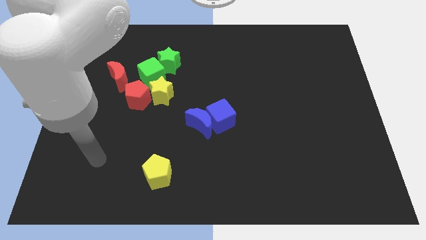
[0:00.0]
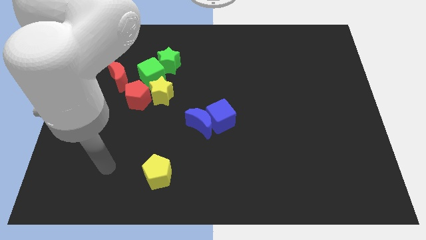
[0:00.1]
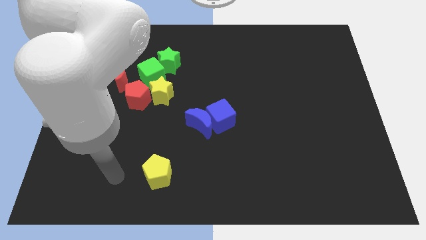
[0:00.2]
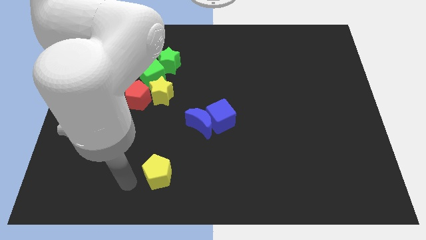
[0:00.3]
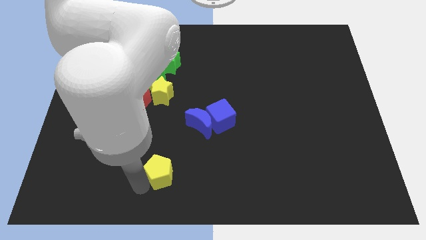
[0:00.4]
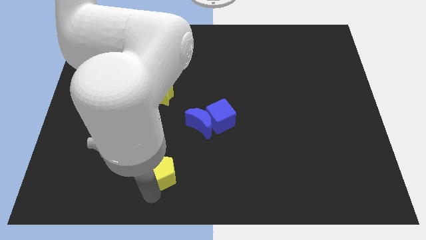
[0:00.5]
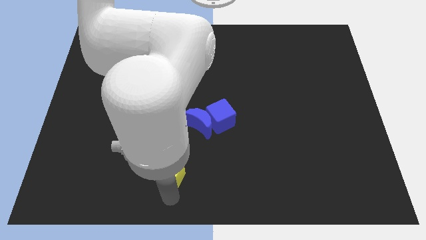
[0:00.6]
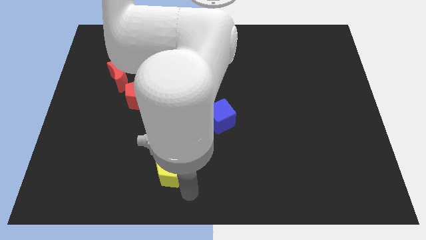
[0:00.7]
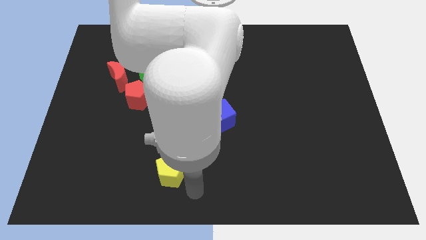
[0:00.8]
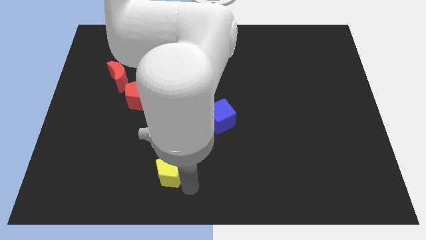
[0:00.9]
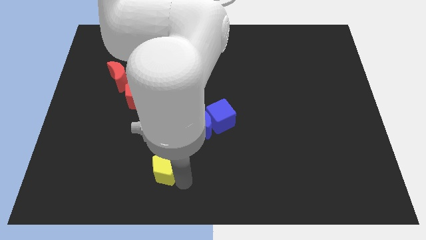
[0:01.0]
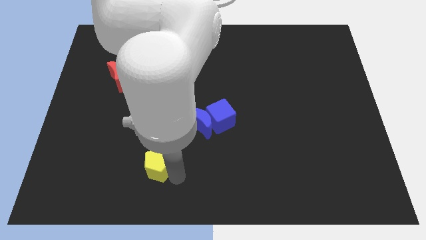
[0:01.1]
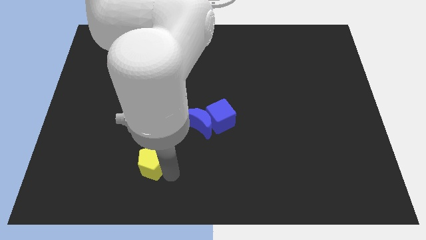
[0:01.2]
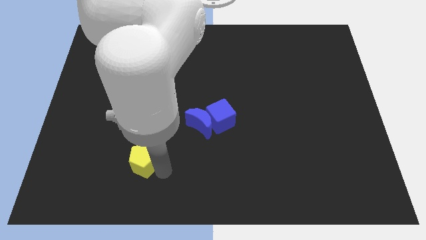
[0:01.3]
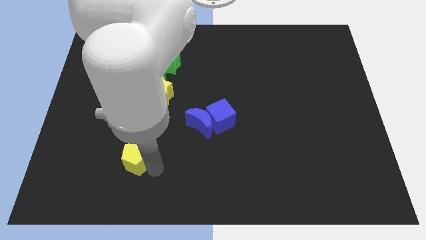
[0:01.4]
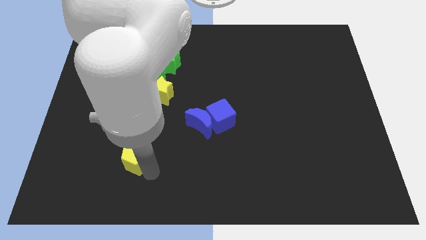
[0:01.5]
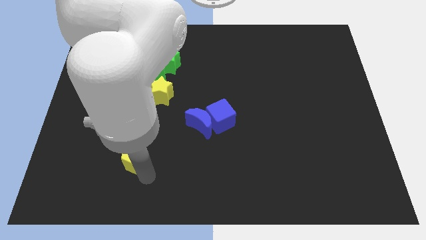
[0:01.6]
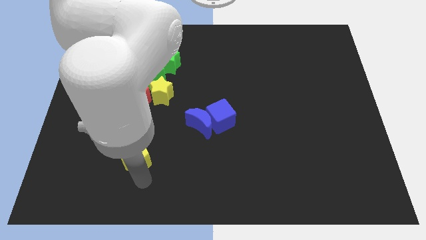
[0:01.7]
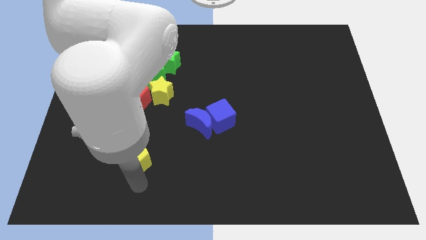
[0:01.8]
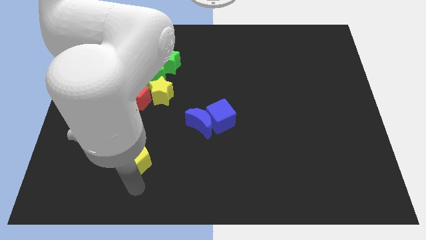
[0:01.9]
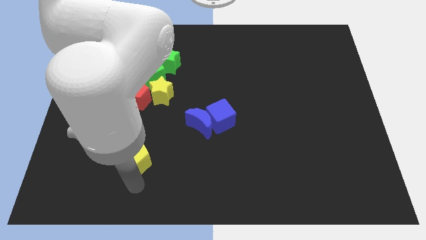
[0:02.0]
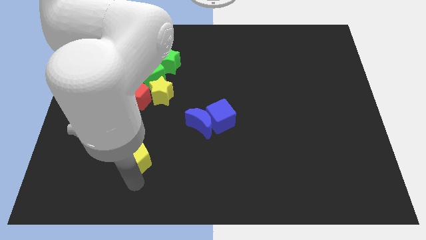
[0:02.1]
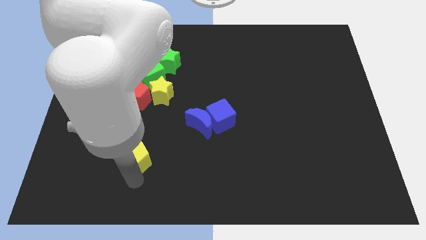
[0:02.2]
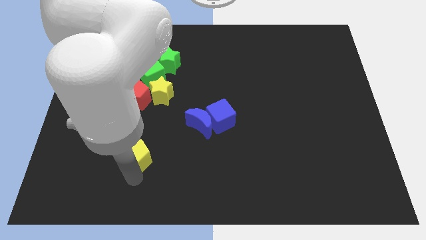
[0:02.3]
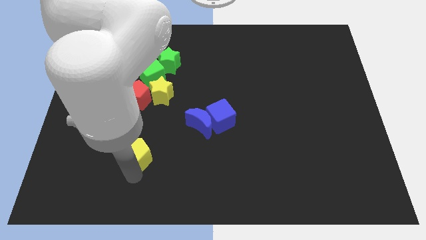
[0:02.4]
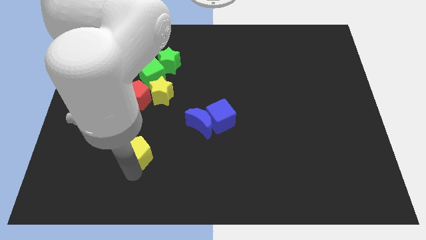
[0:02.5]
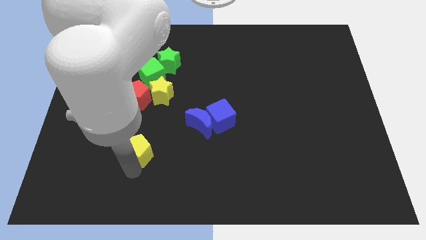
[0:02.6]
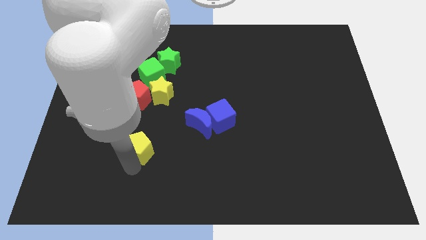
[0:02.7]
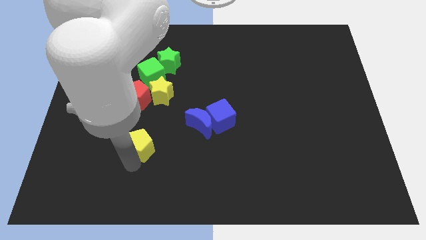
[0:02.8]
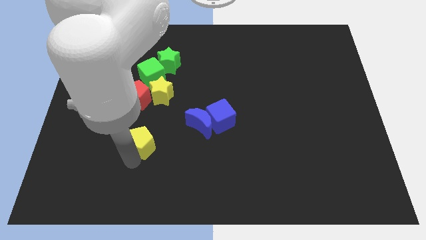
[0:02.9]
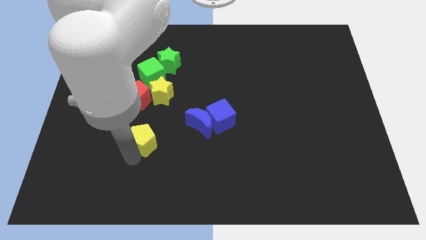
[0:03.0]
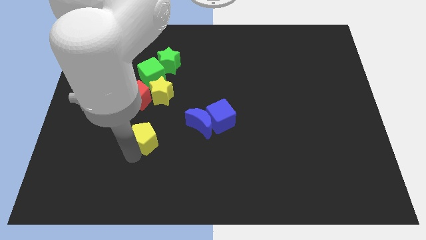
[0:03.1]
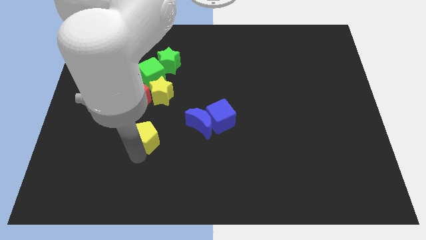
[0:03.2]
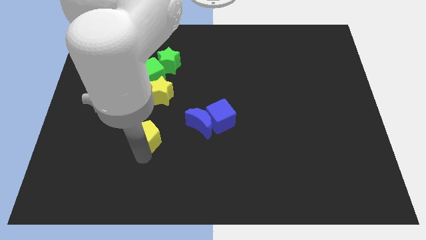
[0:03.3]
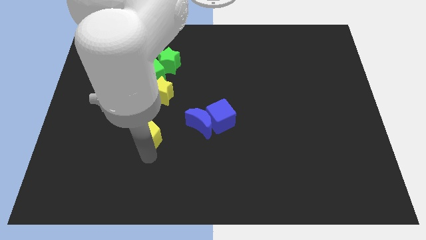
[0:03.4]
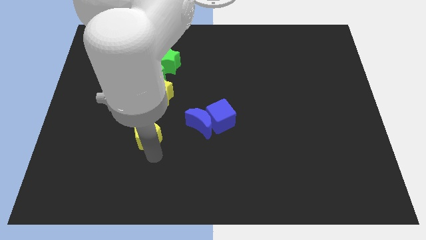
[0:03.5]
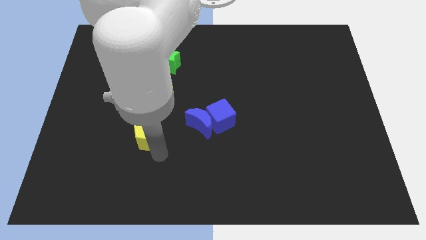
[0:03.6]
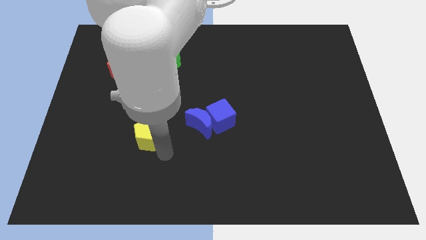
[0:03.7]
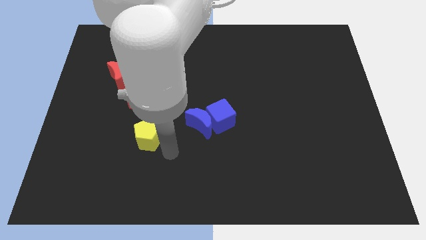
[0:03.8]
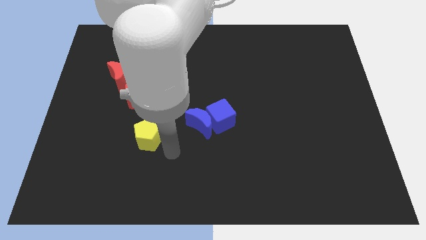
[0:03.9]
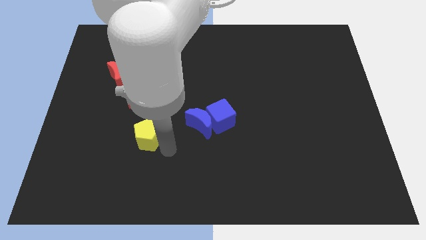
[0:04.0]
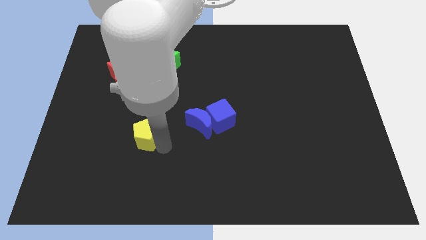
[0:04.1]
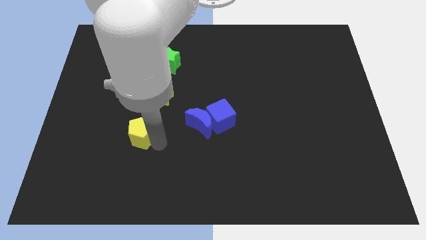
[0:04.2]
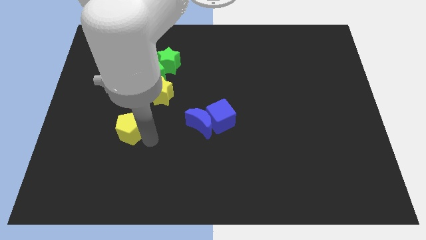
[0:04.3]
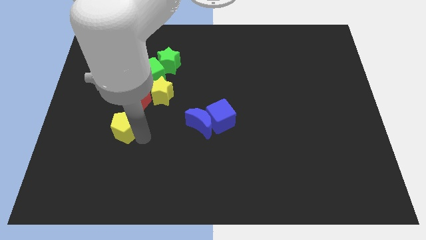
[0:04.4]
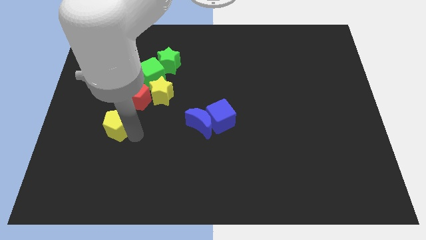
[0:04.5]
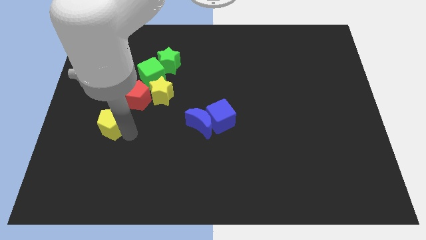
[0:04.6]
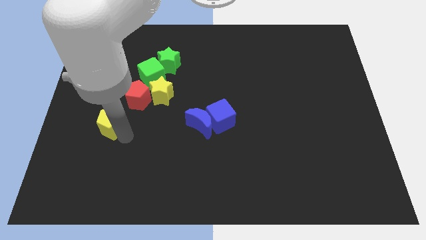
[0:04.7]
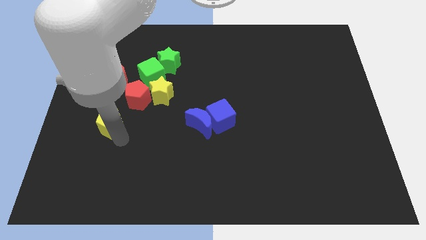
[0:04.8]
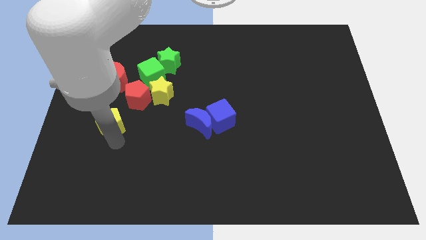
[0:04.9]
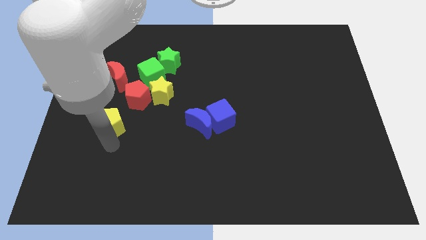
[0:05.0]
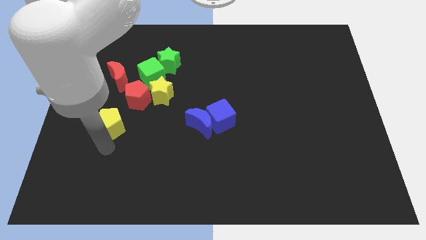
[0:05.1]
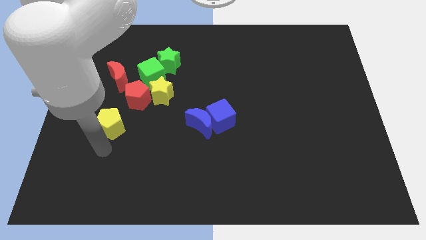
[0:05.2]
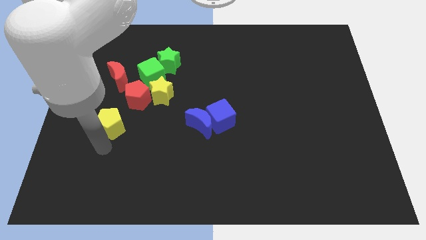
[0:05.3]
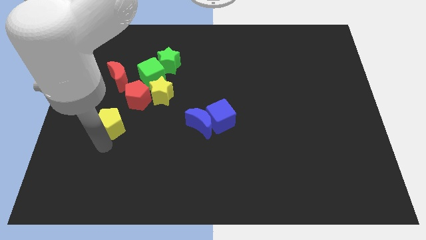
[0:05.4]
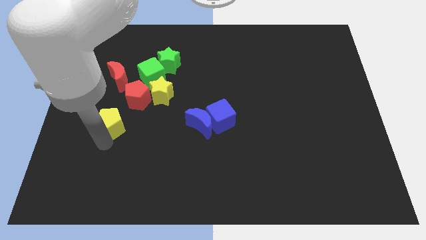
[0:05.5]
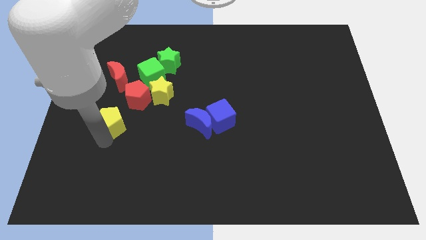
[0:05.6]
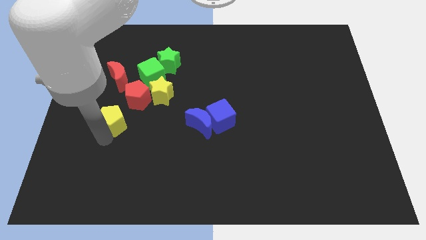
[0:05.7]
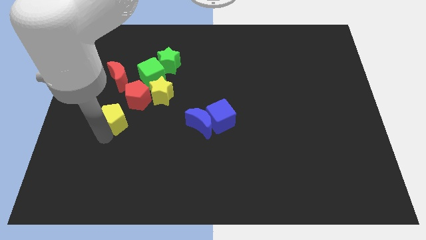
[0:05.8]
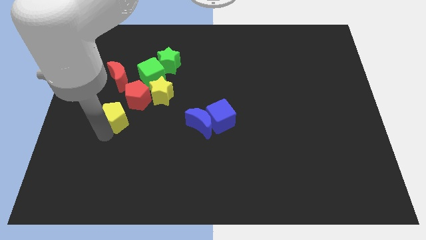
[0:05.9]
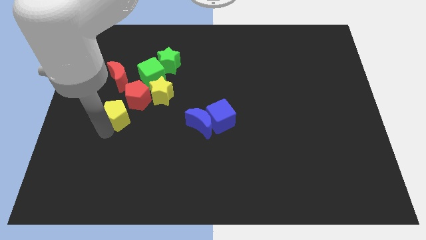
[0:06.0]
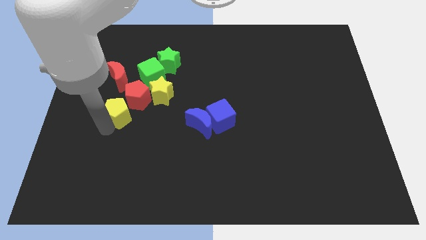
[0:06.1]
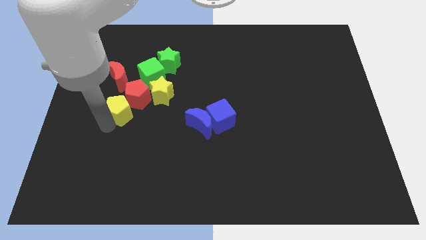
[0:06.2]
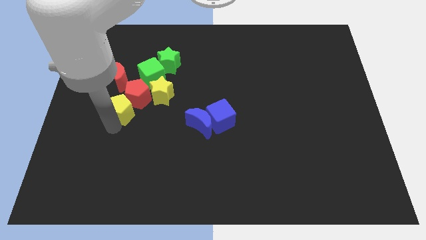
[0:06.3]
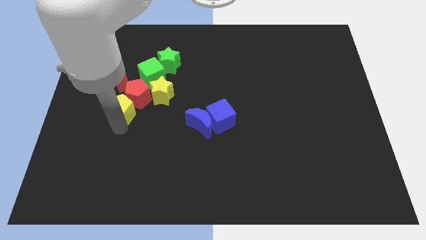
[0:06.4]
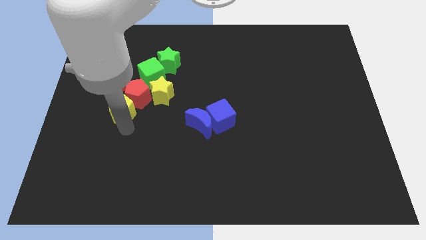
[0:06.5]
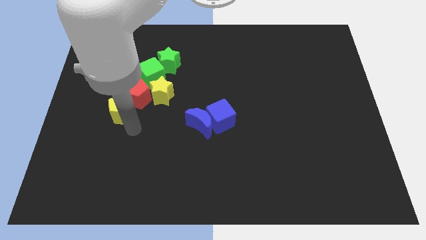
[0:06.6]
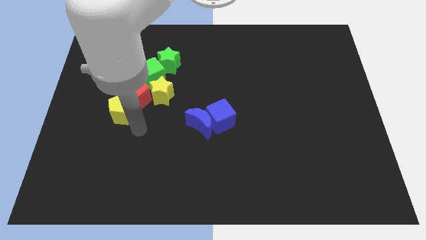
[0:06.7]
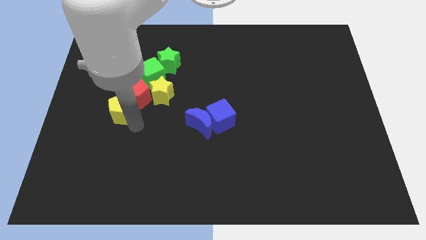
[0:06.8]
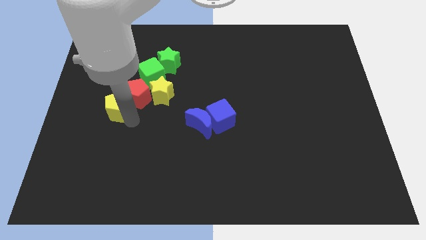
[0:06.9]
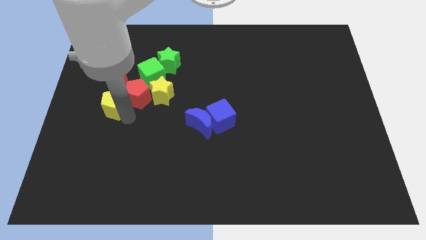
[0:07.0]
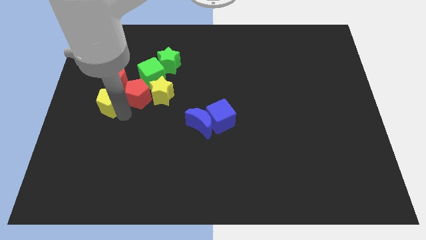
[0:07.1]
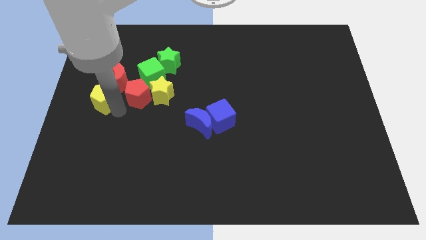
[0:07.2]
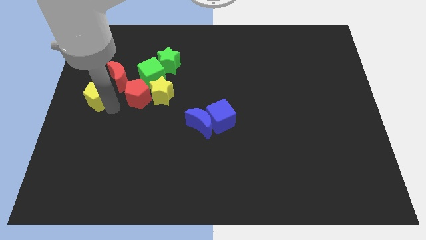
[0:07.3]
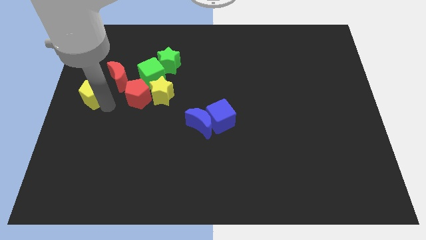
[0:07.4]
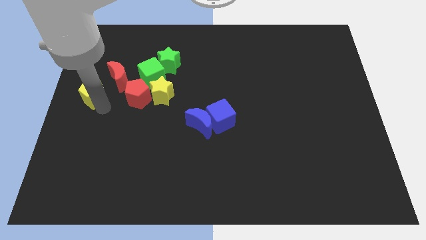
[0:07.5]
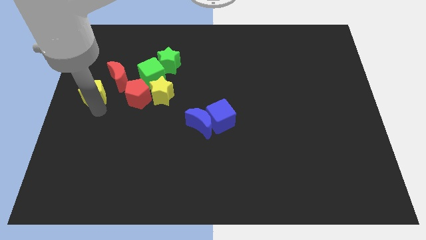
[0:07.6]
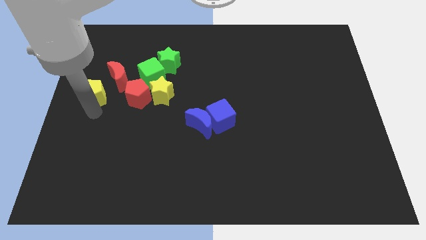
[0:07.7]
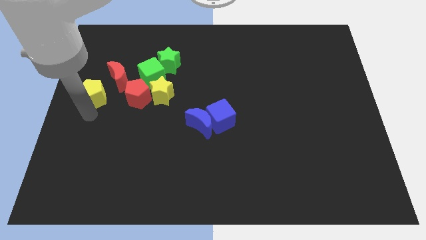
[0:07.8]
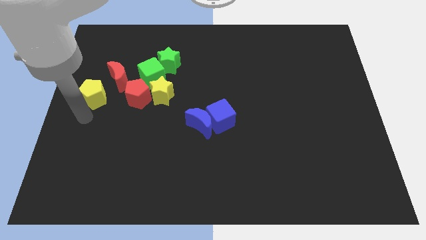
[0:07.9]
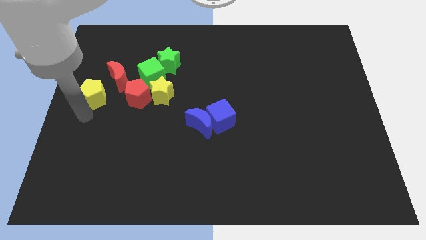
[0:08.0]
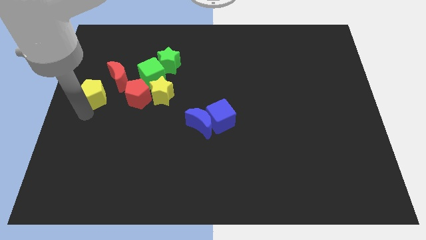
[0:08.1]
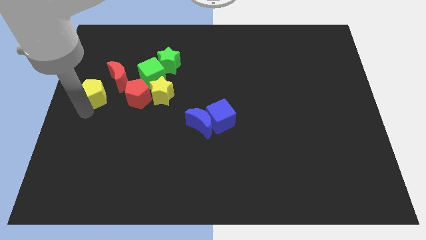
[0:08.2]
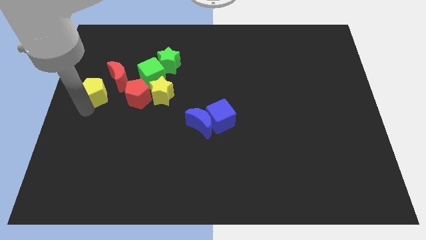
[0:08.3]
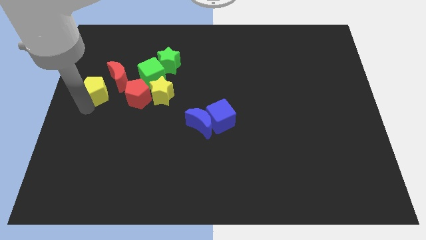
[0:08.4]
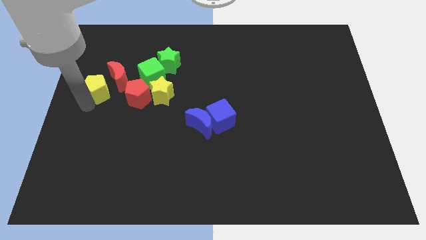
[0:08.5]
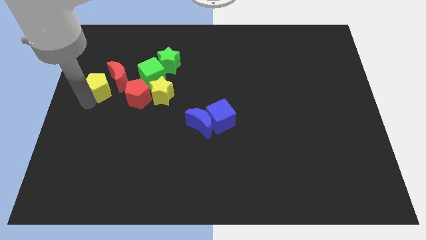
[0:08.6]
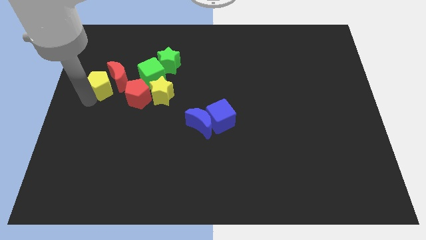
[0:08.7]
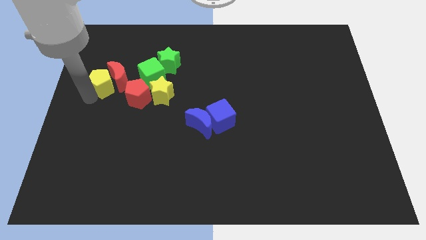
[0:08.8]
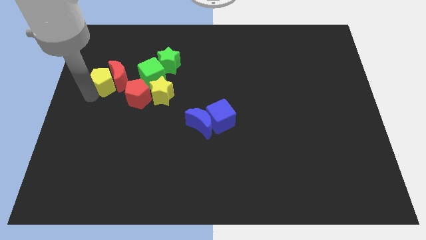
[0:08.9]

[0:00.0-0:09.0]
move the yellow pentagon to the top left of the red moon
